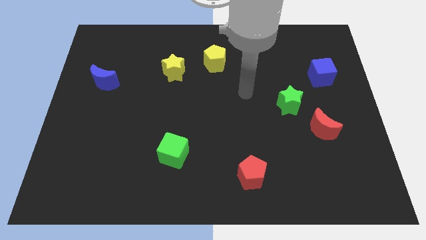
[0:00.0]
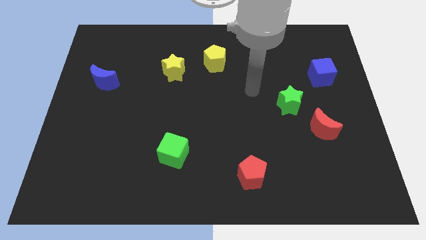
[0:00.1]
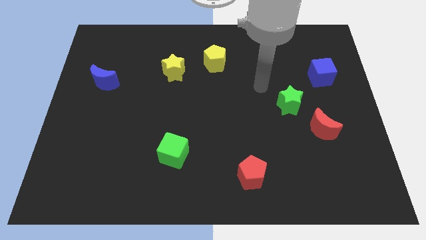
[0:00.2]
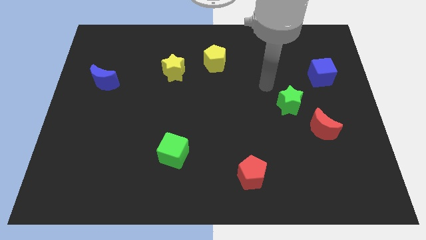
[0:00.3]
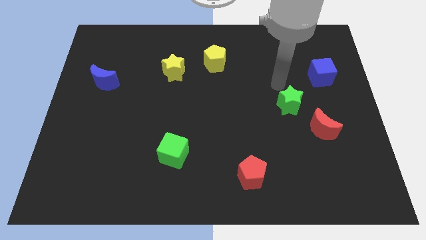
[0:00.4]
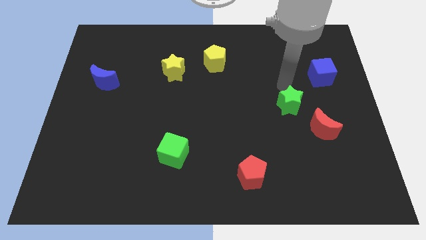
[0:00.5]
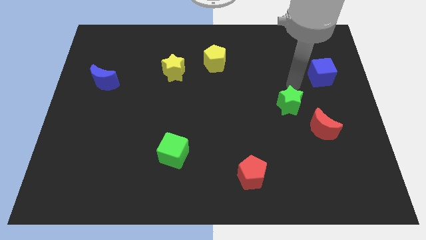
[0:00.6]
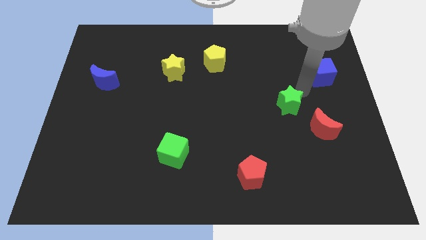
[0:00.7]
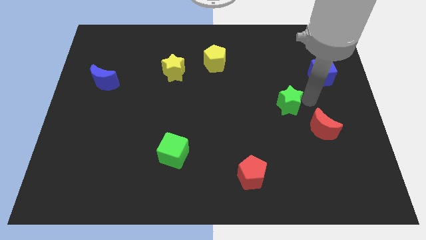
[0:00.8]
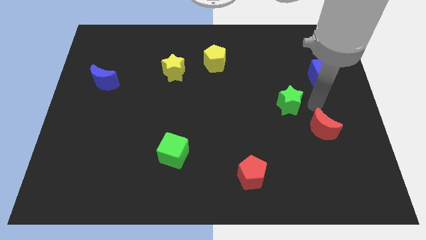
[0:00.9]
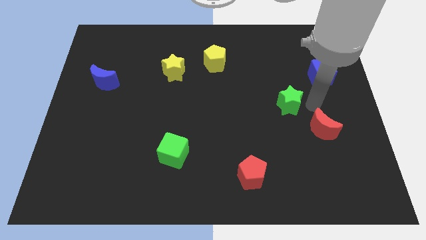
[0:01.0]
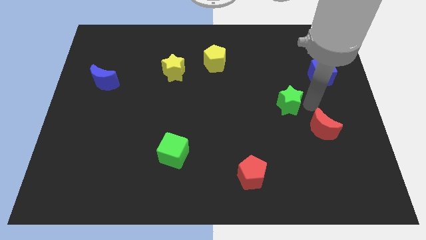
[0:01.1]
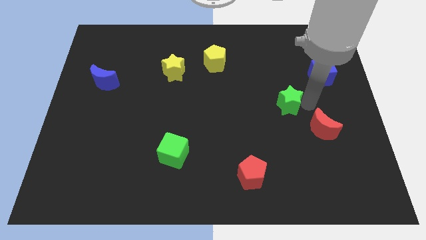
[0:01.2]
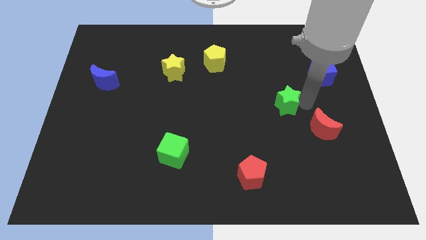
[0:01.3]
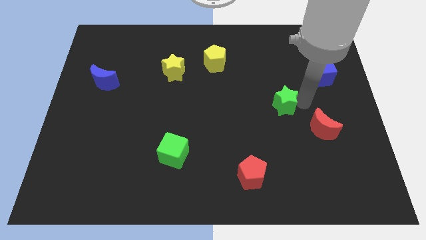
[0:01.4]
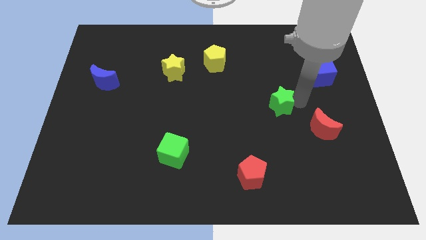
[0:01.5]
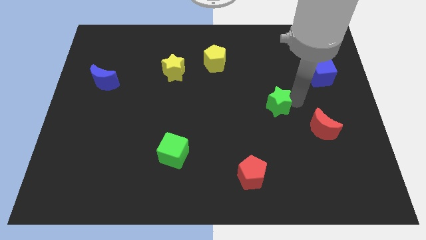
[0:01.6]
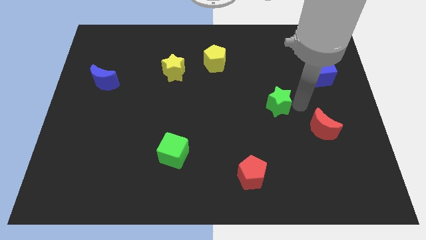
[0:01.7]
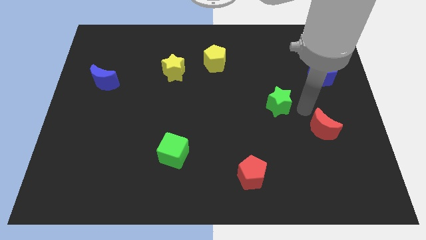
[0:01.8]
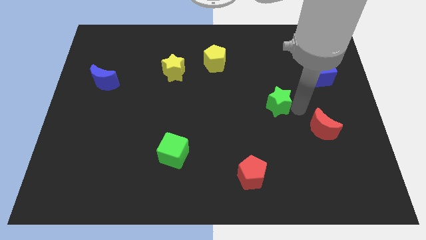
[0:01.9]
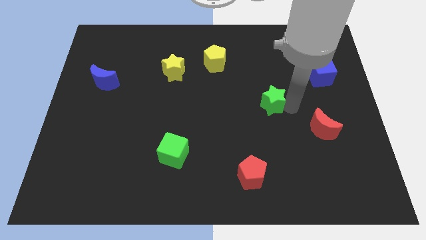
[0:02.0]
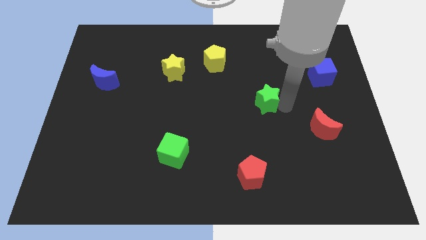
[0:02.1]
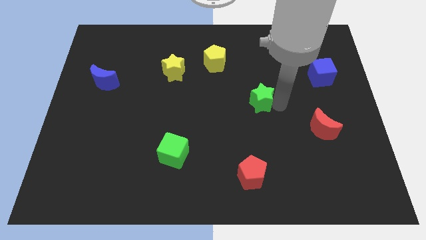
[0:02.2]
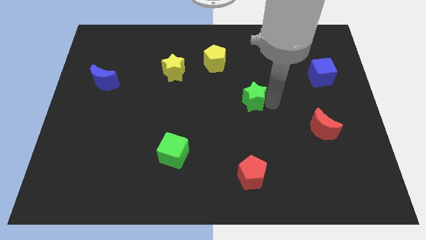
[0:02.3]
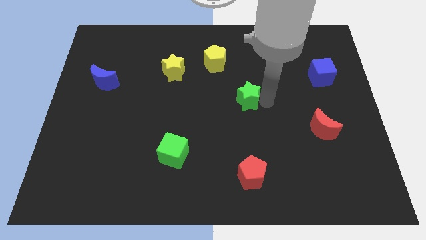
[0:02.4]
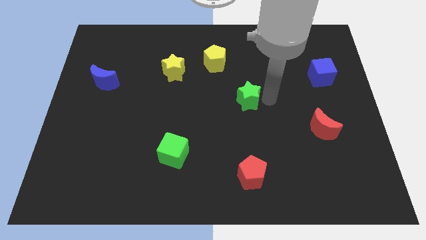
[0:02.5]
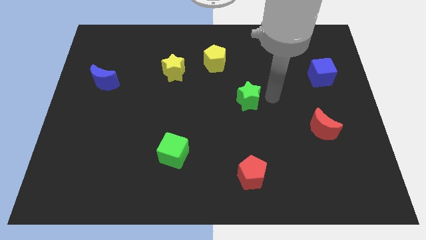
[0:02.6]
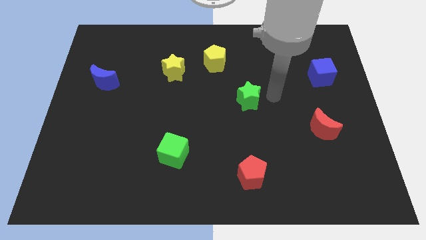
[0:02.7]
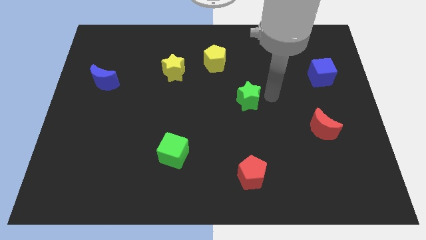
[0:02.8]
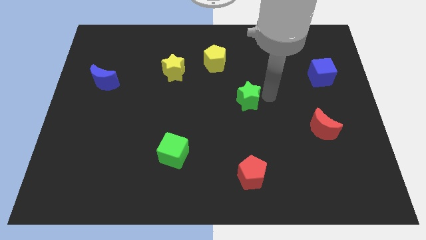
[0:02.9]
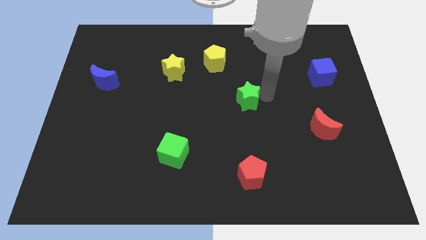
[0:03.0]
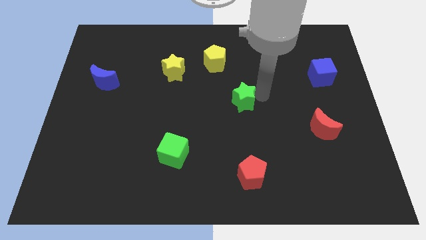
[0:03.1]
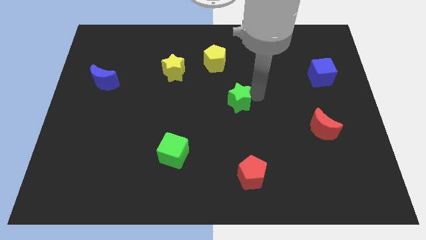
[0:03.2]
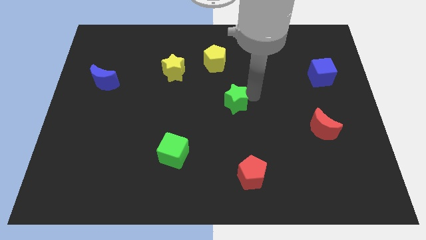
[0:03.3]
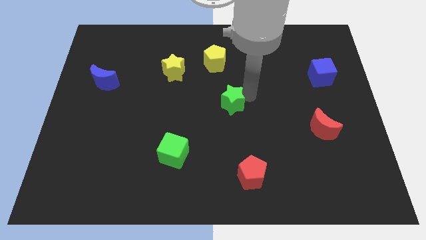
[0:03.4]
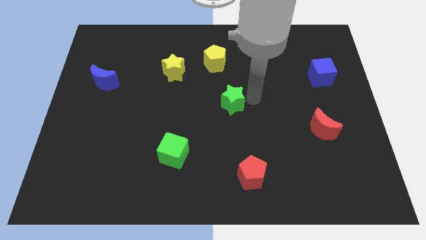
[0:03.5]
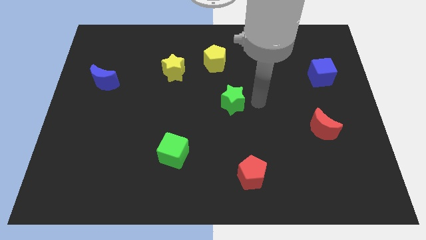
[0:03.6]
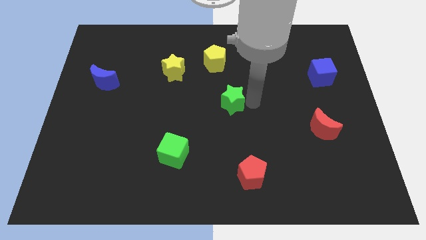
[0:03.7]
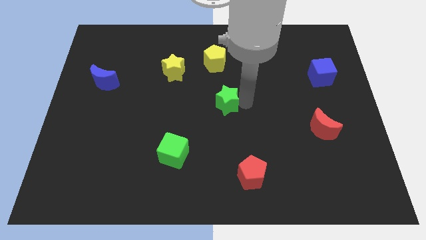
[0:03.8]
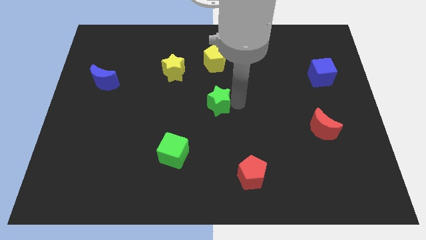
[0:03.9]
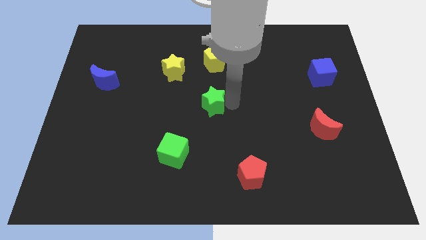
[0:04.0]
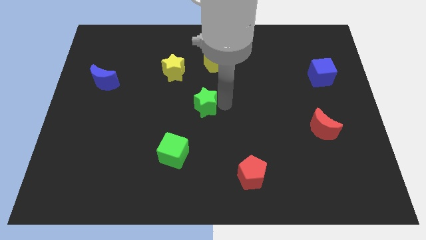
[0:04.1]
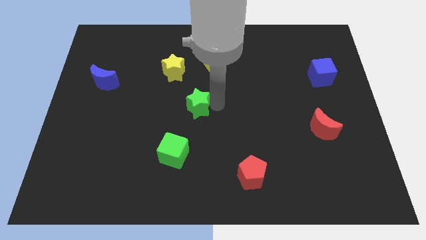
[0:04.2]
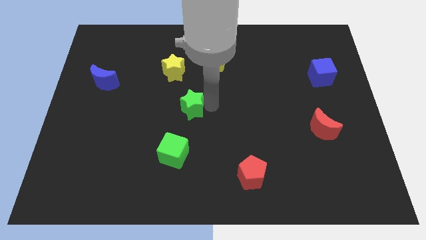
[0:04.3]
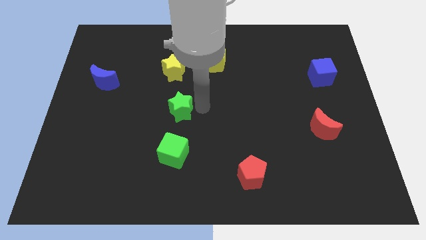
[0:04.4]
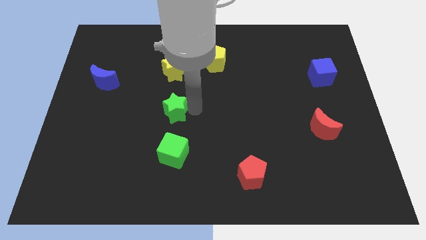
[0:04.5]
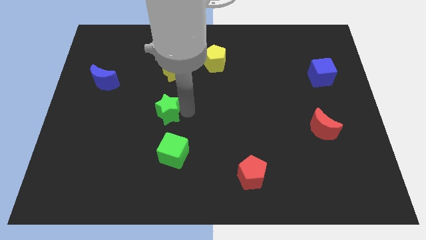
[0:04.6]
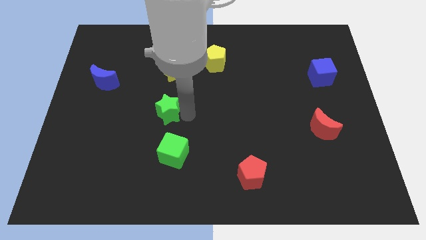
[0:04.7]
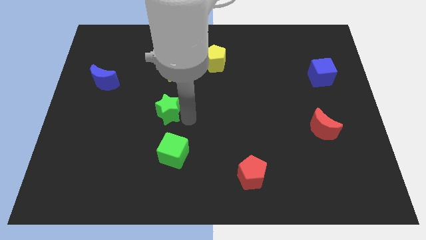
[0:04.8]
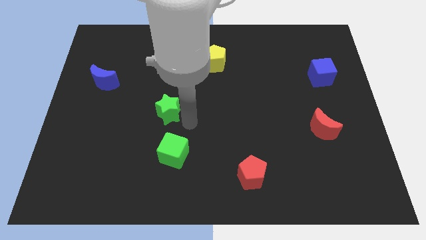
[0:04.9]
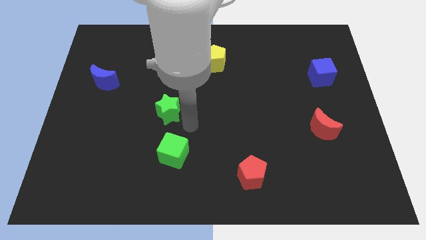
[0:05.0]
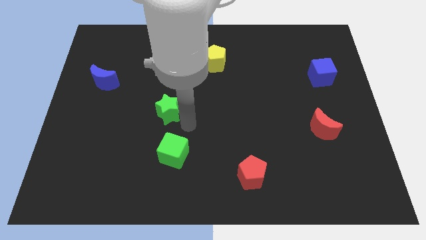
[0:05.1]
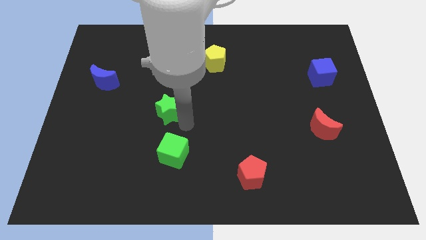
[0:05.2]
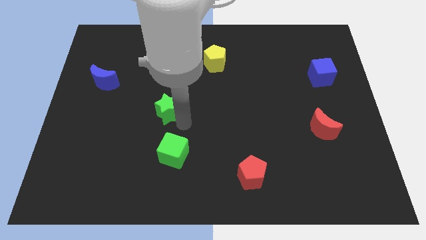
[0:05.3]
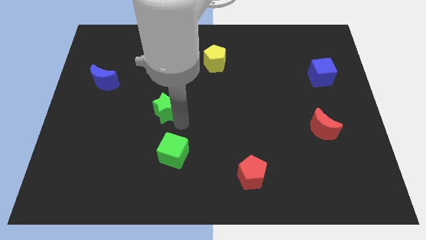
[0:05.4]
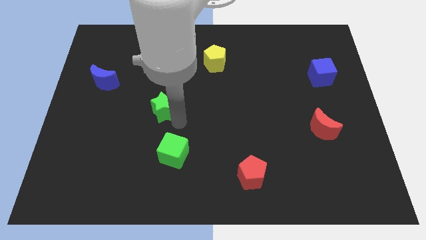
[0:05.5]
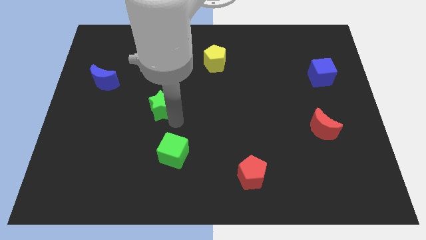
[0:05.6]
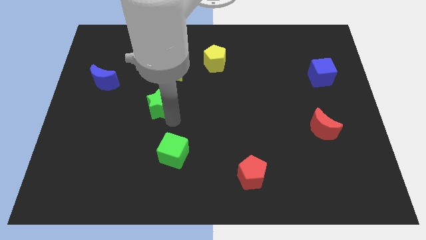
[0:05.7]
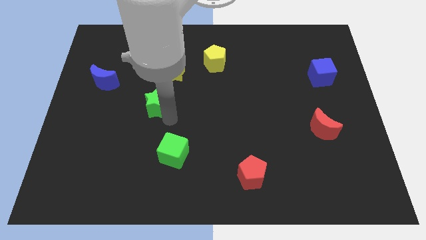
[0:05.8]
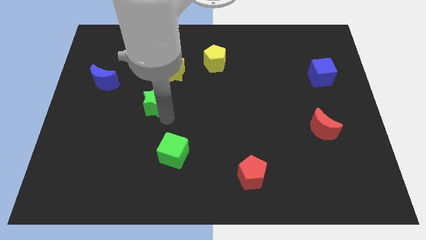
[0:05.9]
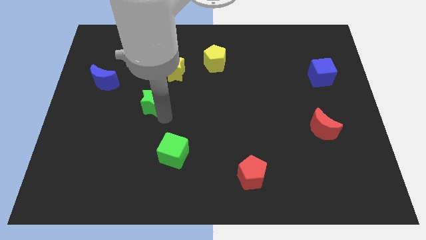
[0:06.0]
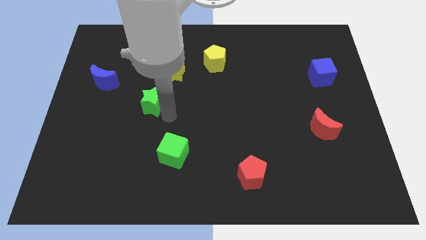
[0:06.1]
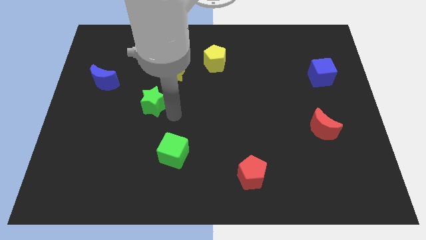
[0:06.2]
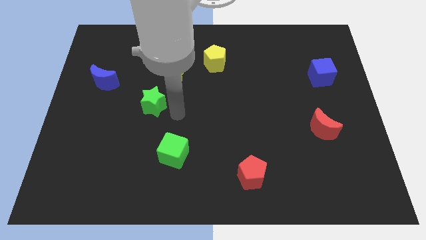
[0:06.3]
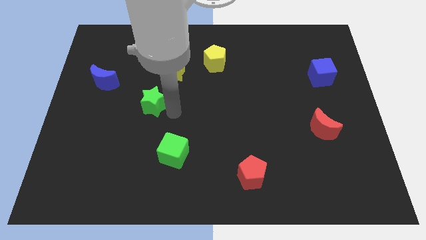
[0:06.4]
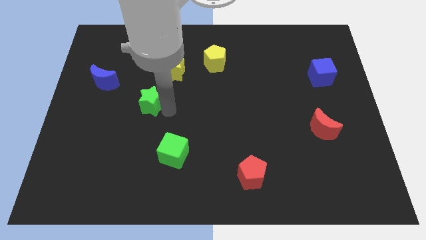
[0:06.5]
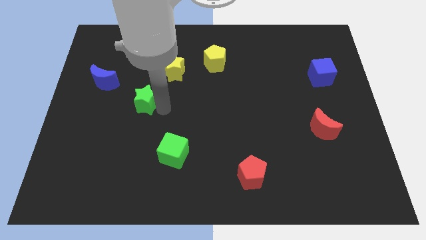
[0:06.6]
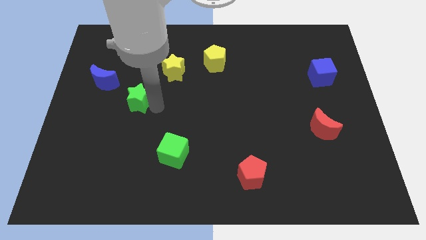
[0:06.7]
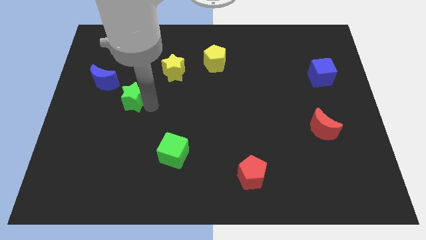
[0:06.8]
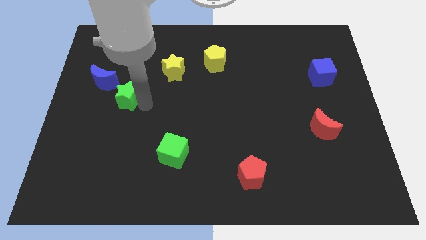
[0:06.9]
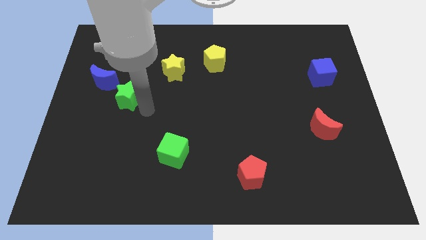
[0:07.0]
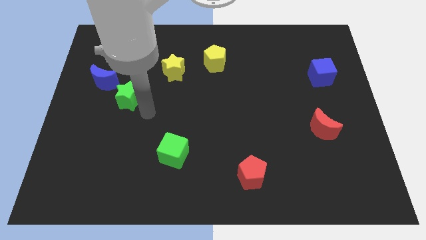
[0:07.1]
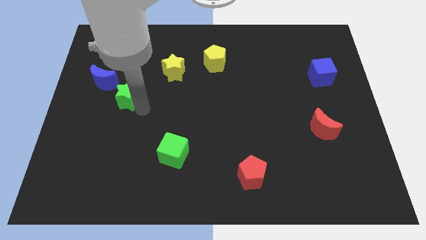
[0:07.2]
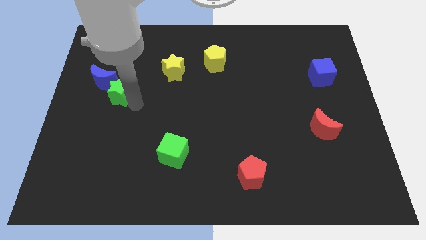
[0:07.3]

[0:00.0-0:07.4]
slide the green star close to the blue moon
